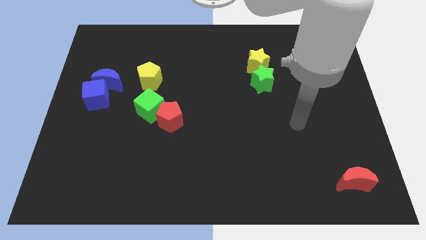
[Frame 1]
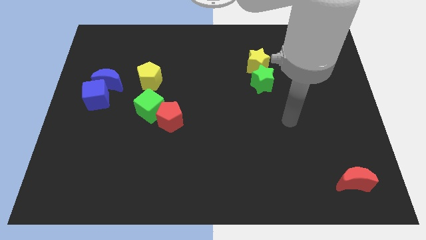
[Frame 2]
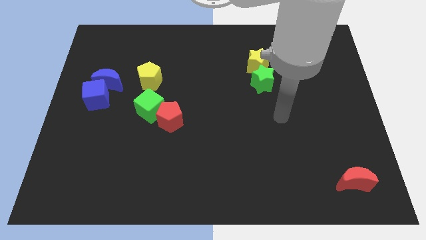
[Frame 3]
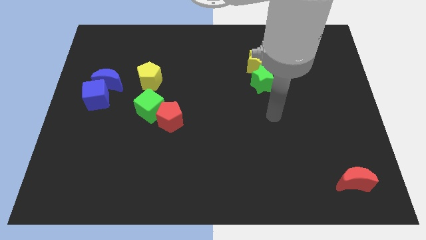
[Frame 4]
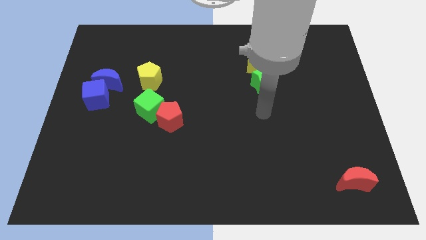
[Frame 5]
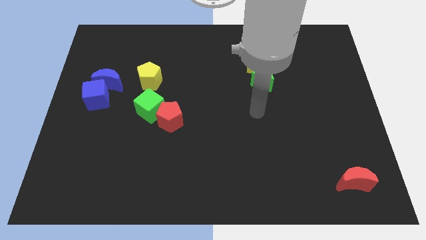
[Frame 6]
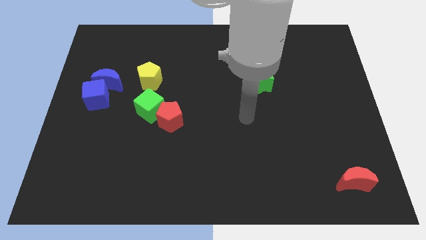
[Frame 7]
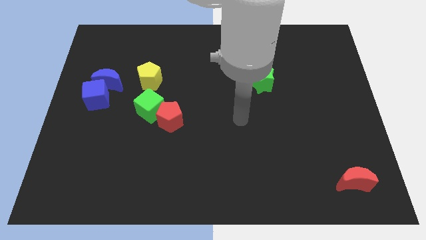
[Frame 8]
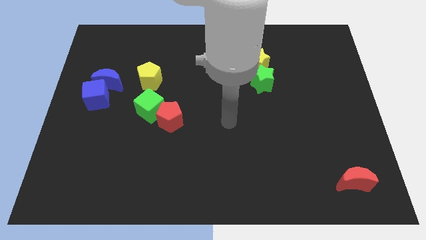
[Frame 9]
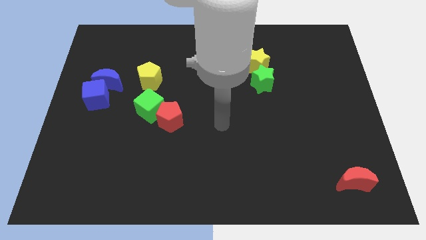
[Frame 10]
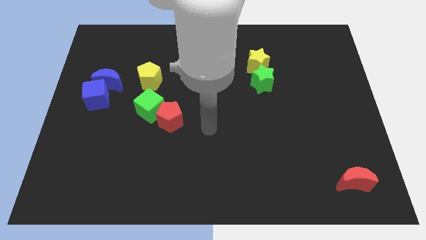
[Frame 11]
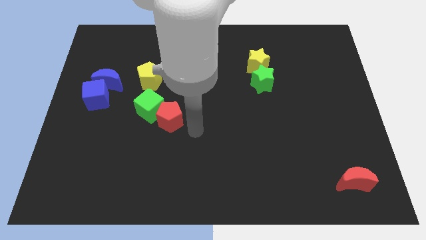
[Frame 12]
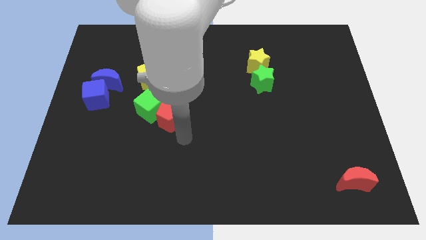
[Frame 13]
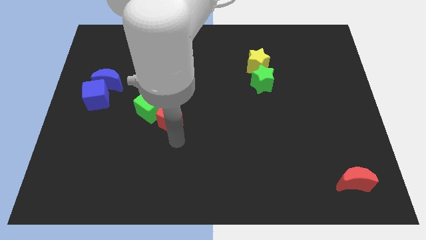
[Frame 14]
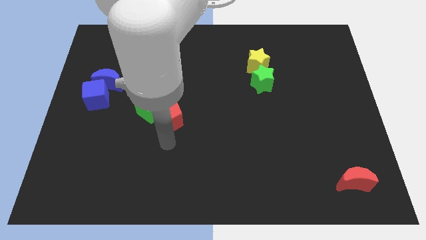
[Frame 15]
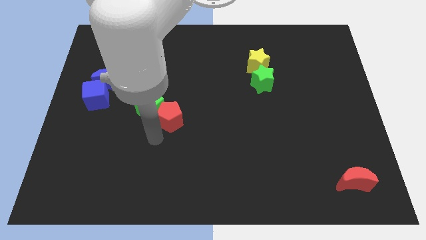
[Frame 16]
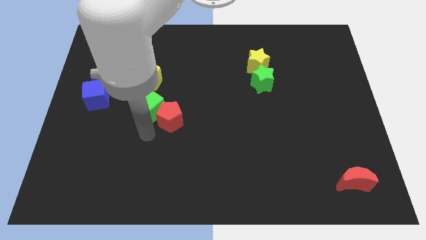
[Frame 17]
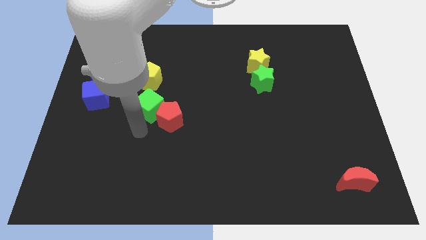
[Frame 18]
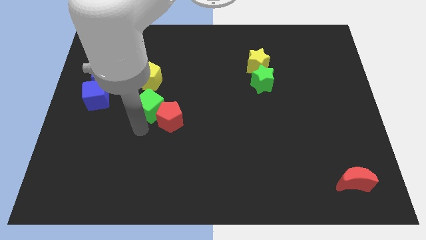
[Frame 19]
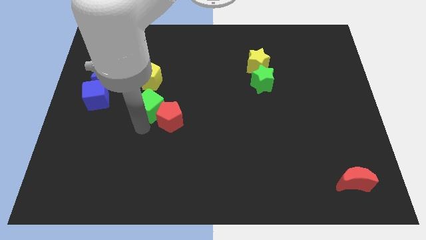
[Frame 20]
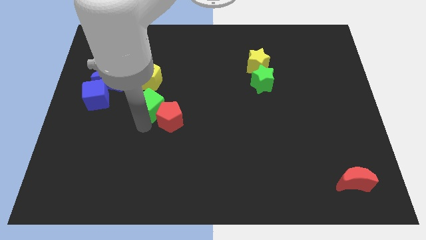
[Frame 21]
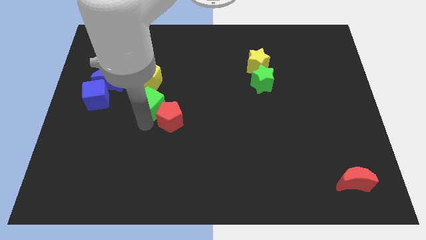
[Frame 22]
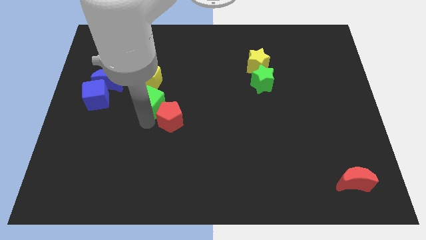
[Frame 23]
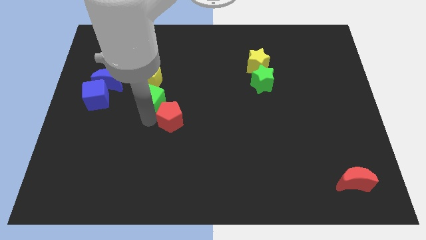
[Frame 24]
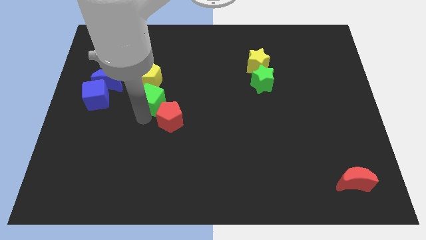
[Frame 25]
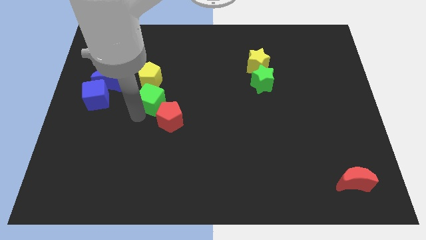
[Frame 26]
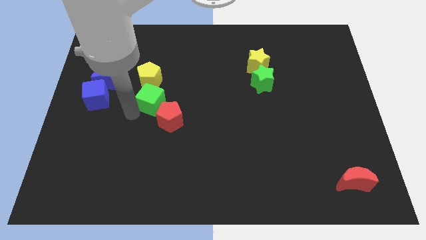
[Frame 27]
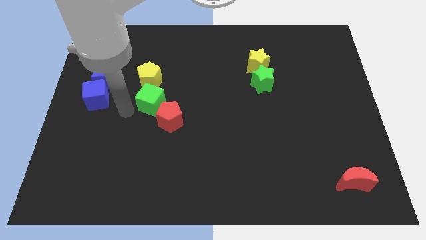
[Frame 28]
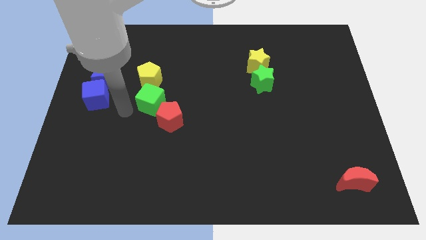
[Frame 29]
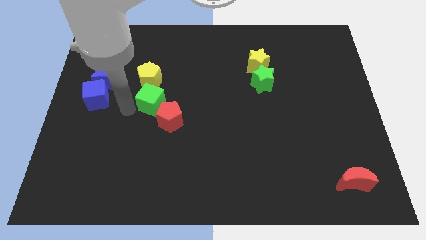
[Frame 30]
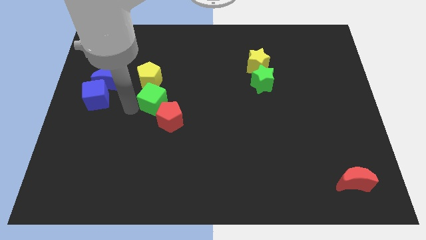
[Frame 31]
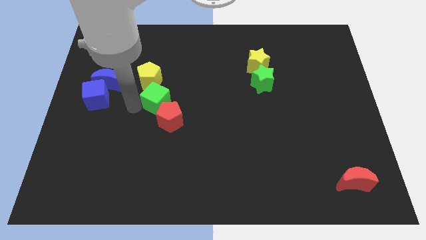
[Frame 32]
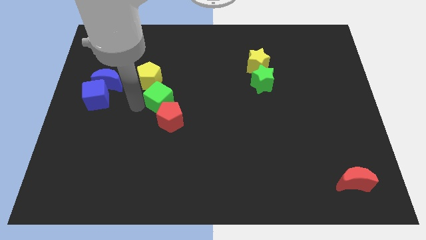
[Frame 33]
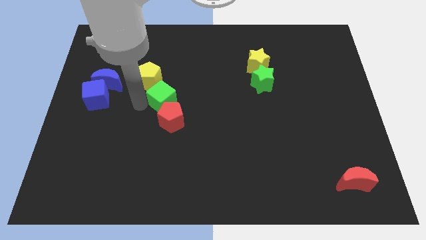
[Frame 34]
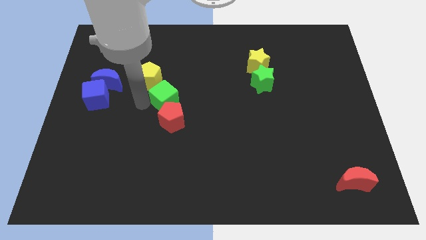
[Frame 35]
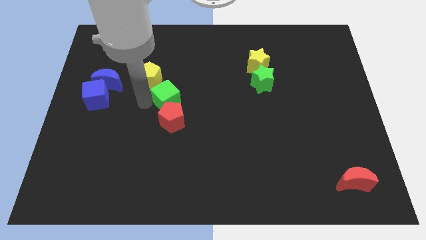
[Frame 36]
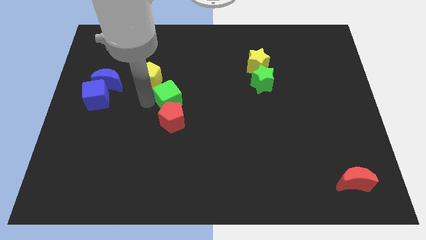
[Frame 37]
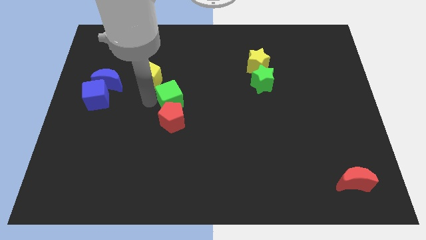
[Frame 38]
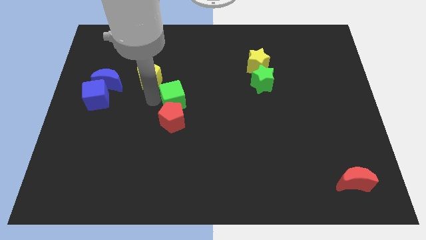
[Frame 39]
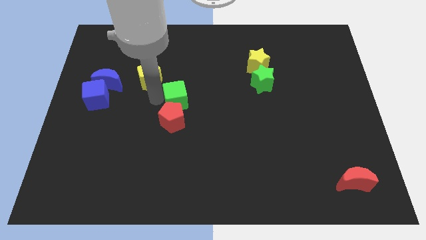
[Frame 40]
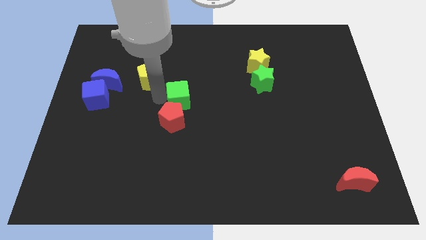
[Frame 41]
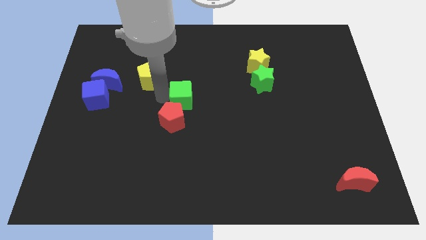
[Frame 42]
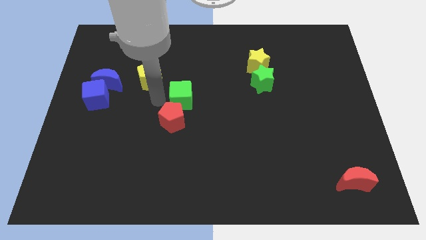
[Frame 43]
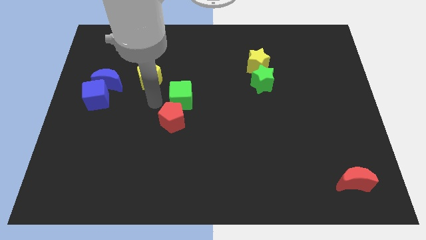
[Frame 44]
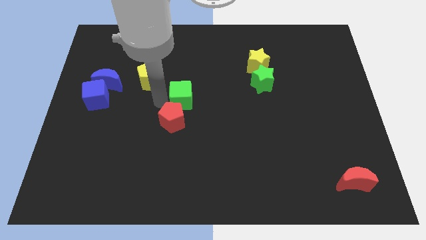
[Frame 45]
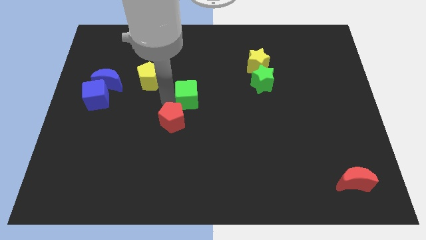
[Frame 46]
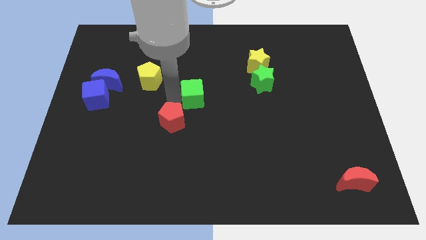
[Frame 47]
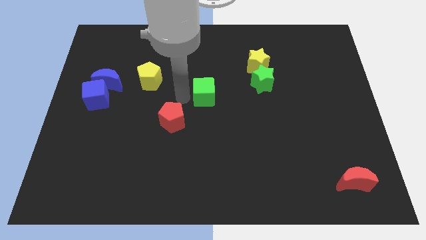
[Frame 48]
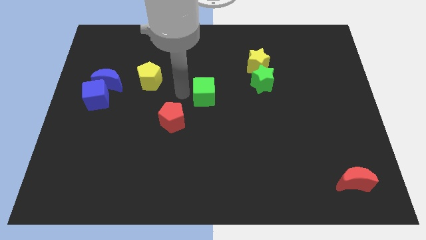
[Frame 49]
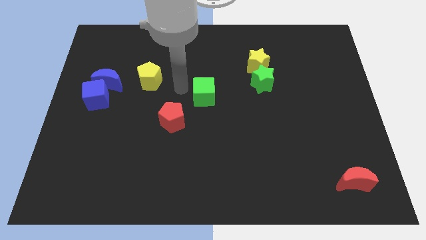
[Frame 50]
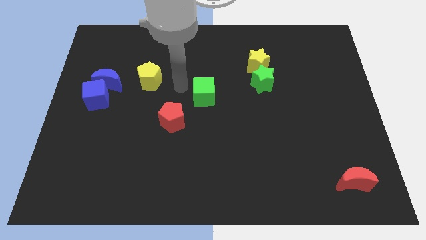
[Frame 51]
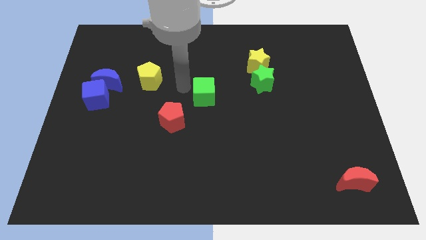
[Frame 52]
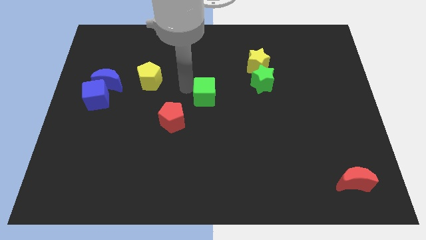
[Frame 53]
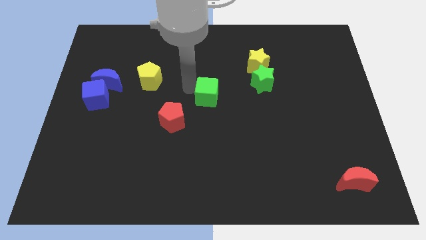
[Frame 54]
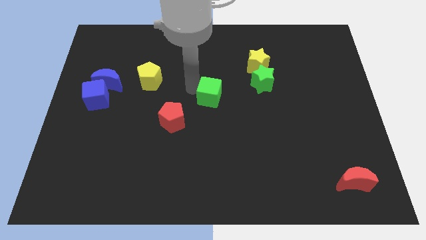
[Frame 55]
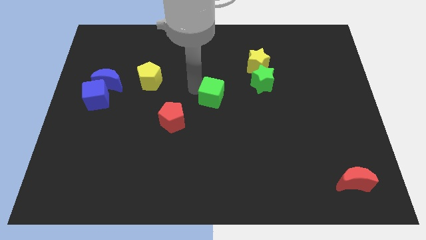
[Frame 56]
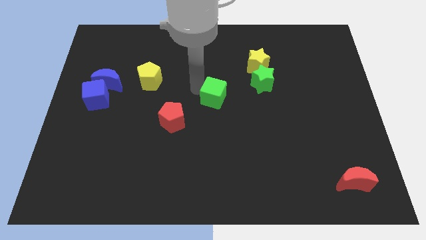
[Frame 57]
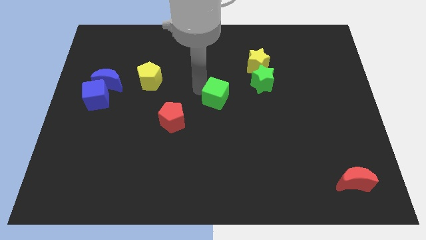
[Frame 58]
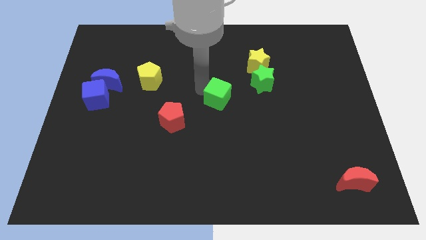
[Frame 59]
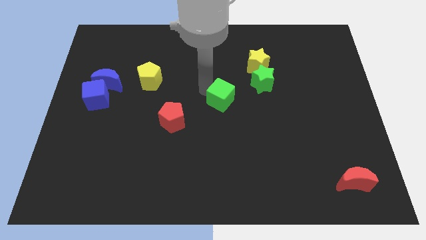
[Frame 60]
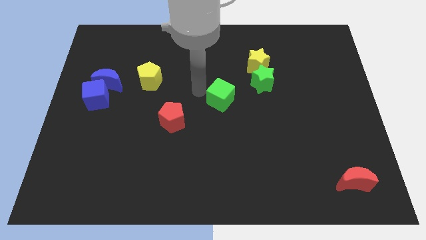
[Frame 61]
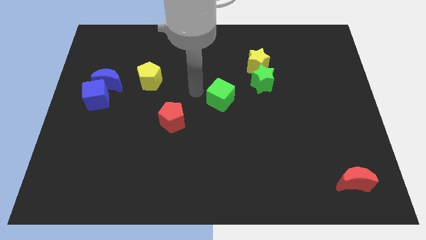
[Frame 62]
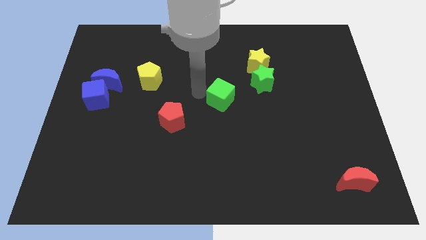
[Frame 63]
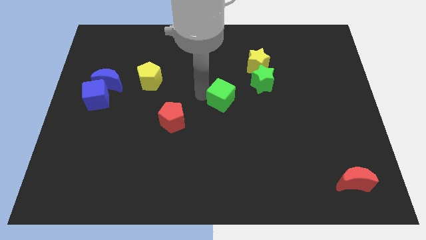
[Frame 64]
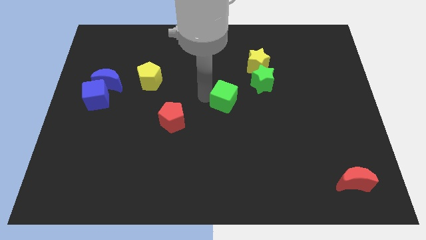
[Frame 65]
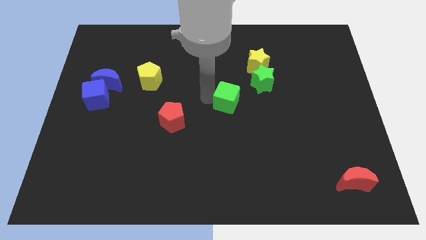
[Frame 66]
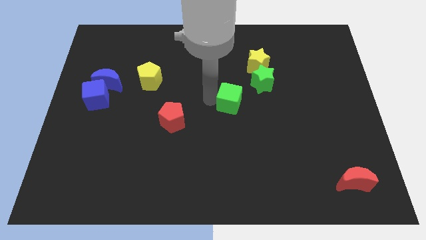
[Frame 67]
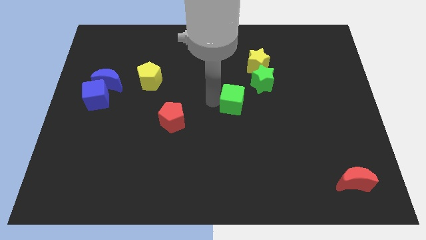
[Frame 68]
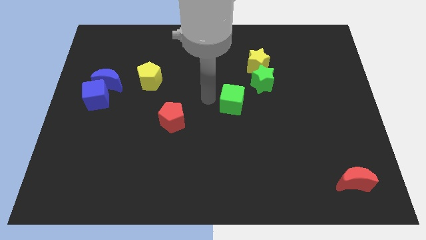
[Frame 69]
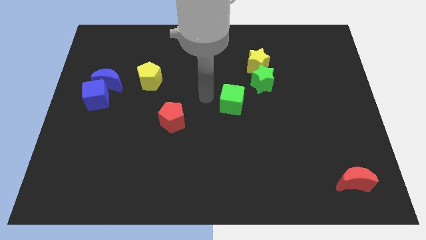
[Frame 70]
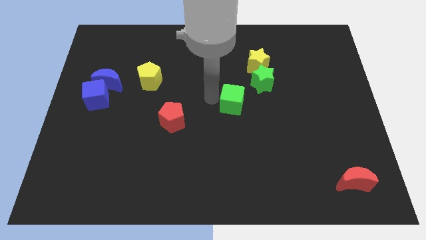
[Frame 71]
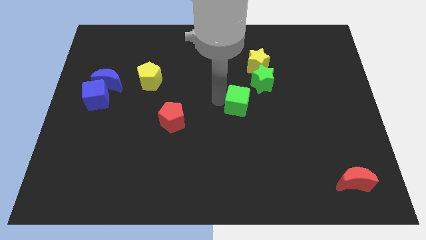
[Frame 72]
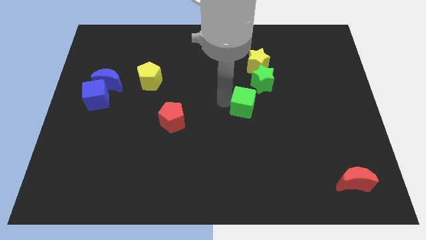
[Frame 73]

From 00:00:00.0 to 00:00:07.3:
move the green cube to the bottom side of the green star
